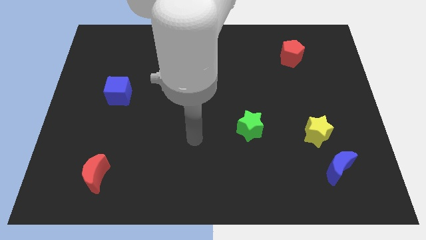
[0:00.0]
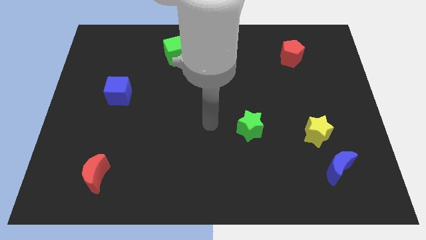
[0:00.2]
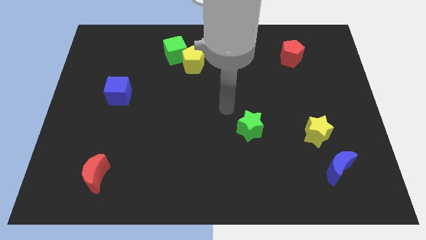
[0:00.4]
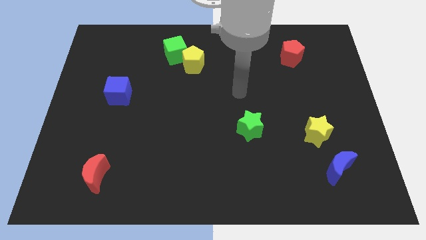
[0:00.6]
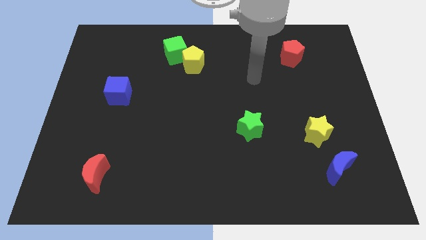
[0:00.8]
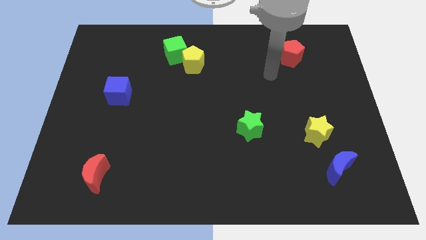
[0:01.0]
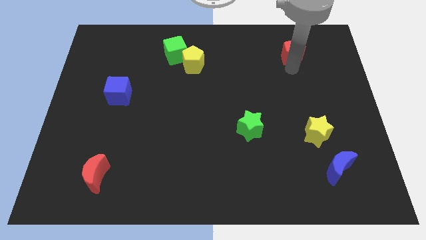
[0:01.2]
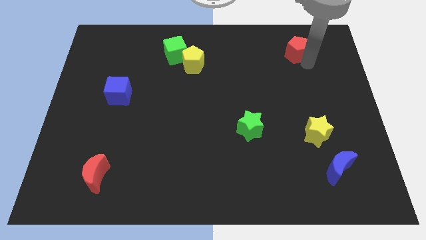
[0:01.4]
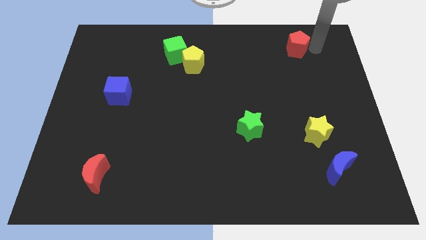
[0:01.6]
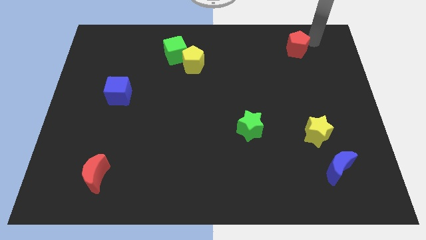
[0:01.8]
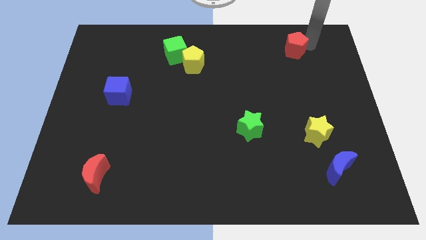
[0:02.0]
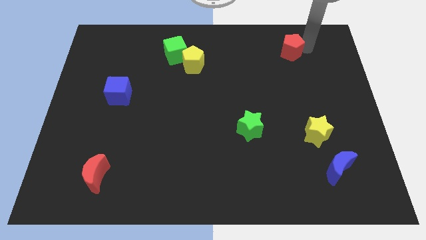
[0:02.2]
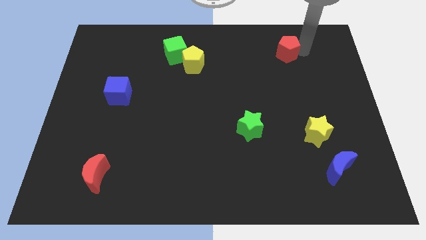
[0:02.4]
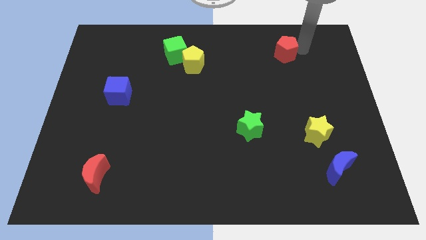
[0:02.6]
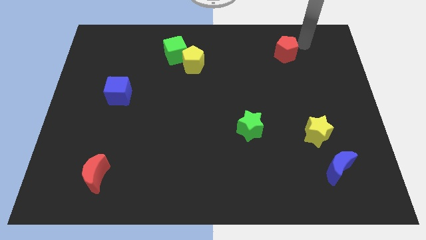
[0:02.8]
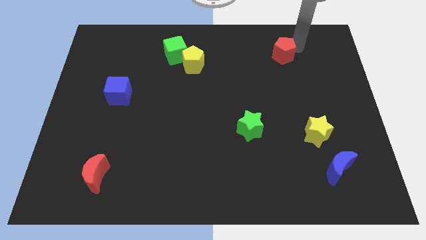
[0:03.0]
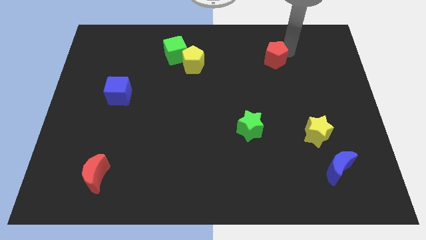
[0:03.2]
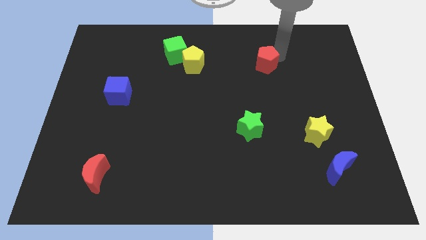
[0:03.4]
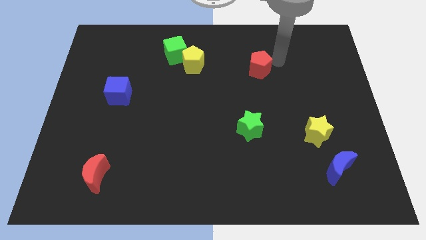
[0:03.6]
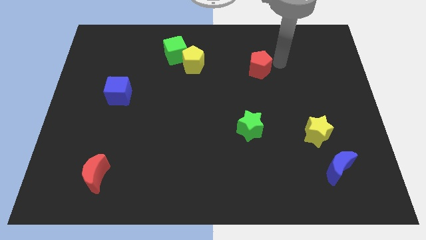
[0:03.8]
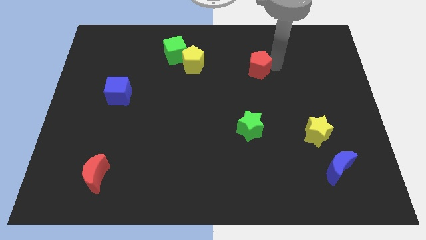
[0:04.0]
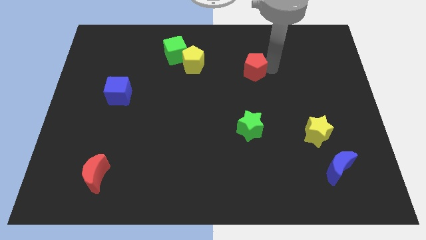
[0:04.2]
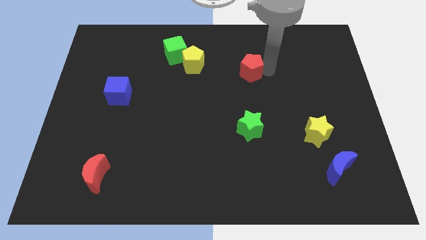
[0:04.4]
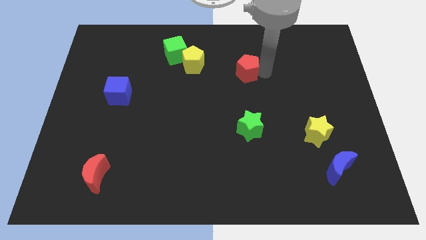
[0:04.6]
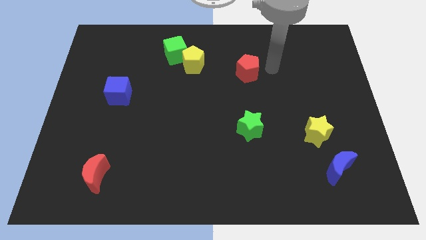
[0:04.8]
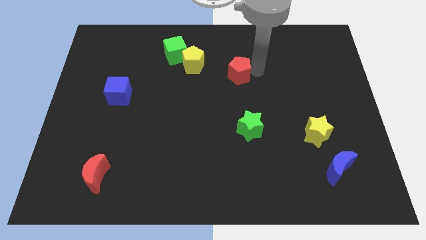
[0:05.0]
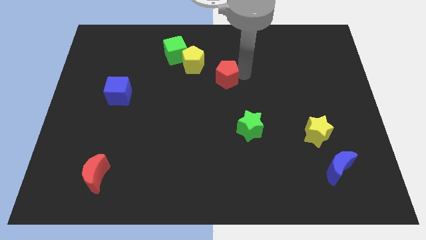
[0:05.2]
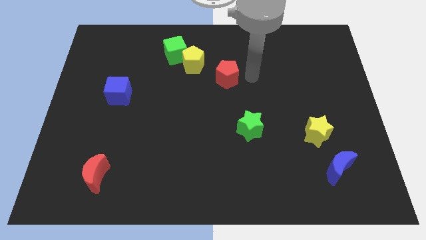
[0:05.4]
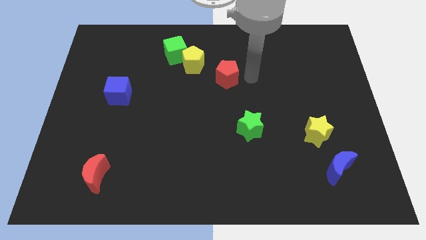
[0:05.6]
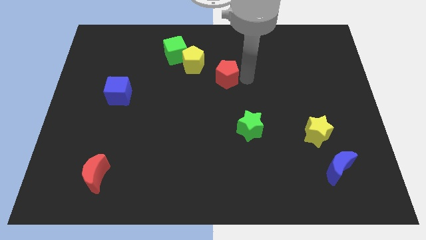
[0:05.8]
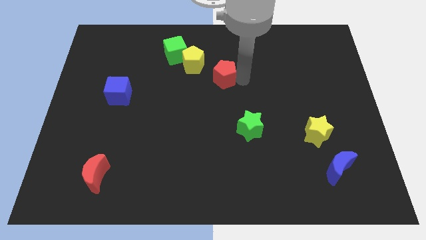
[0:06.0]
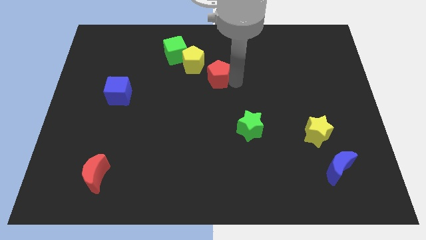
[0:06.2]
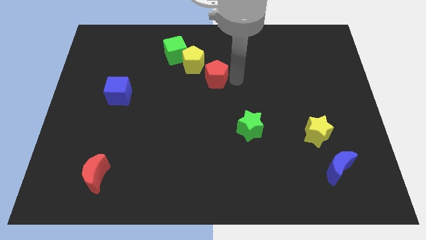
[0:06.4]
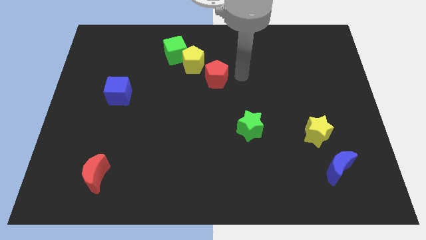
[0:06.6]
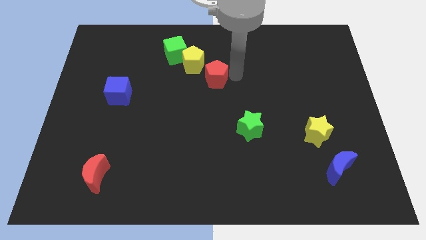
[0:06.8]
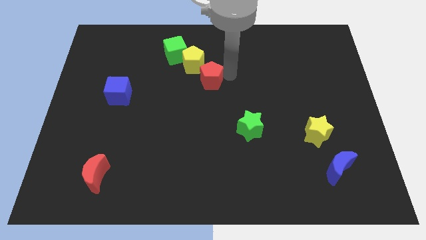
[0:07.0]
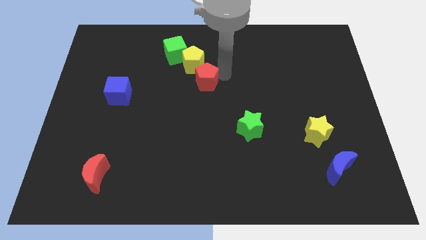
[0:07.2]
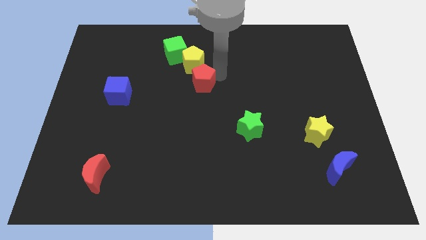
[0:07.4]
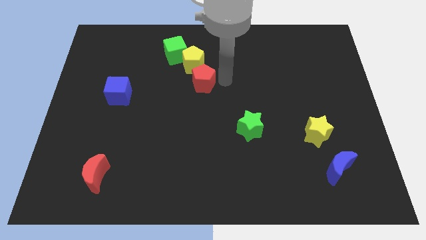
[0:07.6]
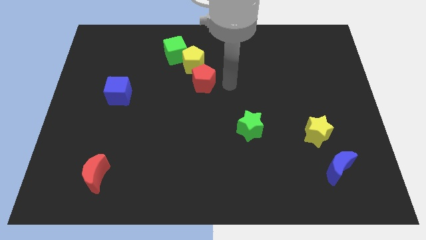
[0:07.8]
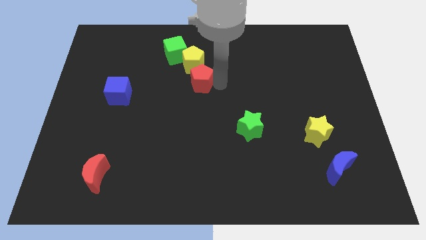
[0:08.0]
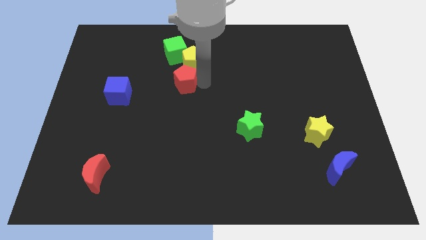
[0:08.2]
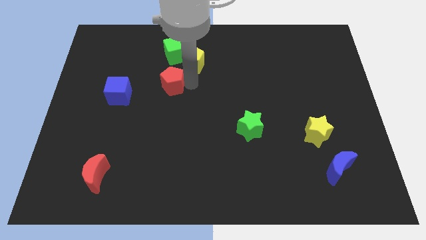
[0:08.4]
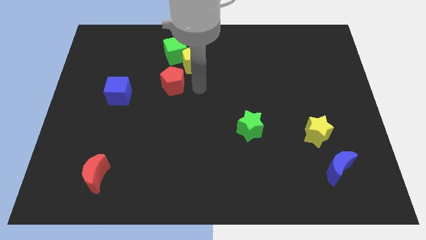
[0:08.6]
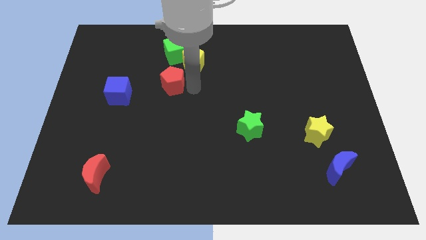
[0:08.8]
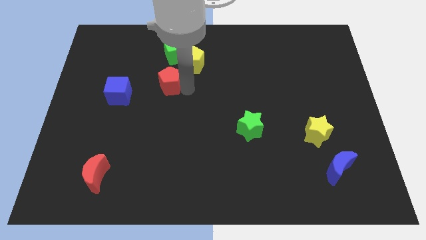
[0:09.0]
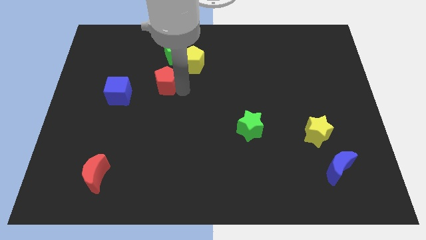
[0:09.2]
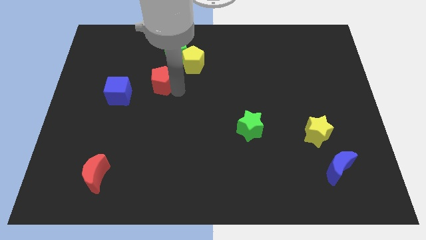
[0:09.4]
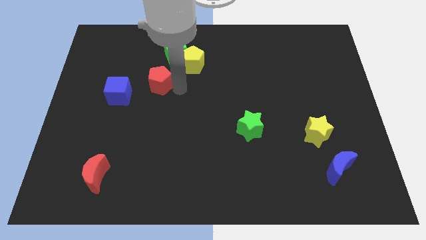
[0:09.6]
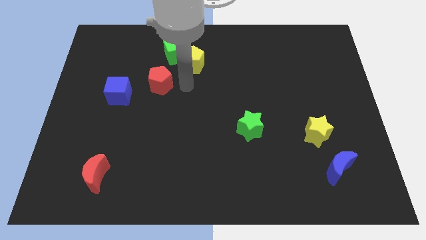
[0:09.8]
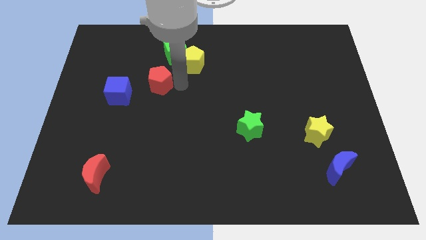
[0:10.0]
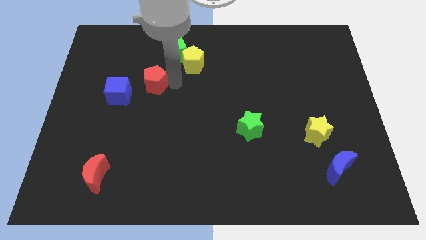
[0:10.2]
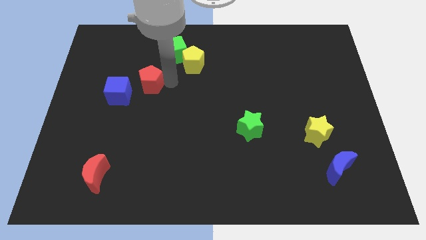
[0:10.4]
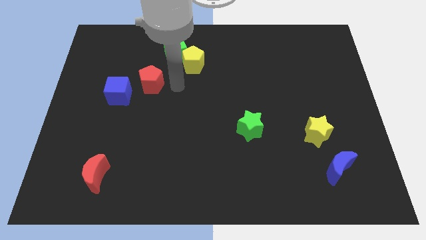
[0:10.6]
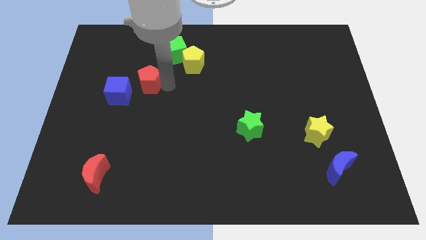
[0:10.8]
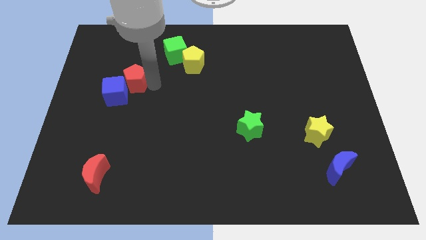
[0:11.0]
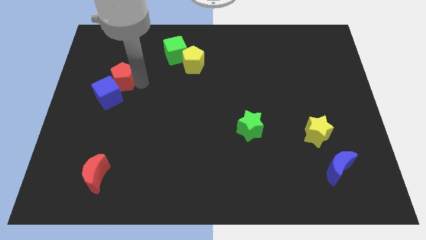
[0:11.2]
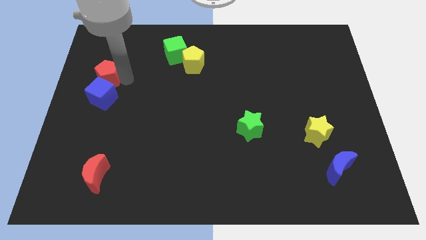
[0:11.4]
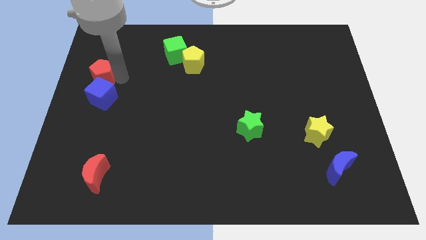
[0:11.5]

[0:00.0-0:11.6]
slide the red pentagon to the center left
